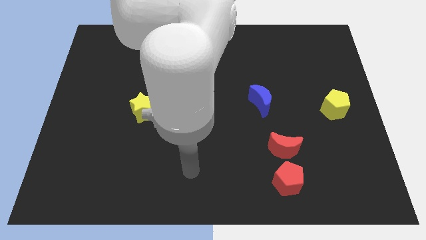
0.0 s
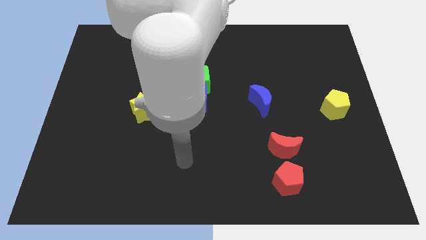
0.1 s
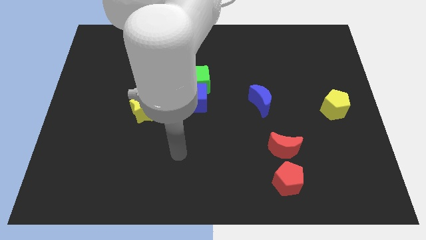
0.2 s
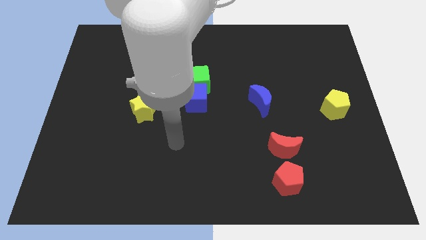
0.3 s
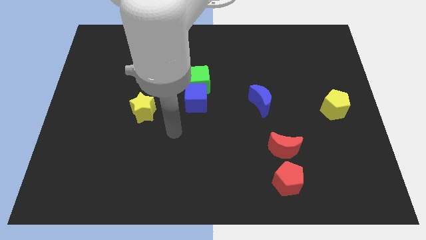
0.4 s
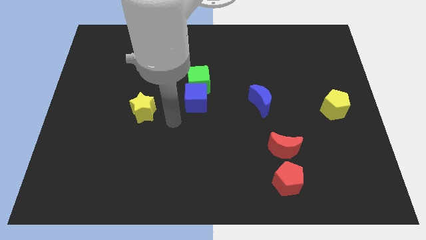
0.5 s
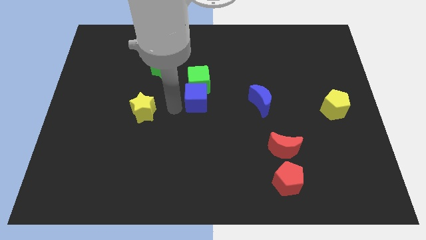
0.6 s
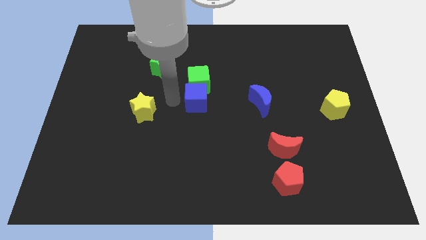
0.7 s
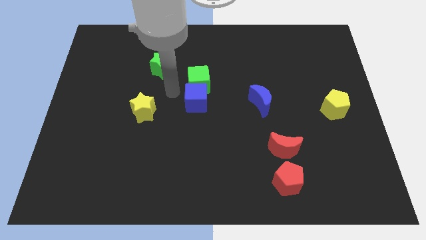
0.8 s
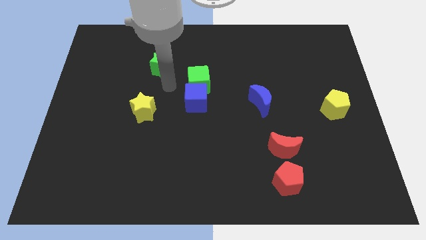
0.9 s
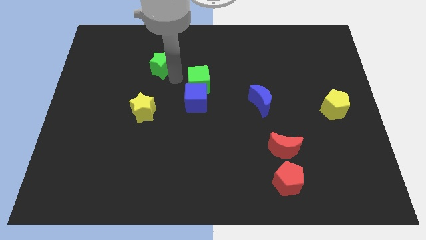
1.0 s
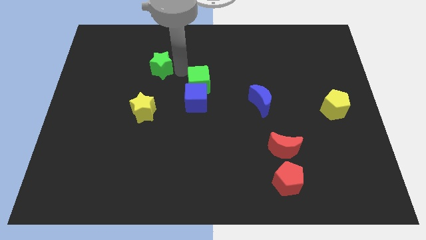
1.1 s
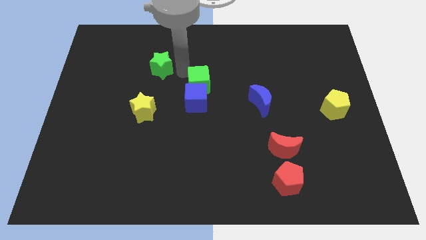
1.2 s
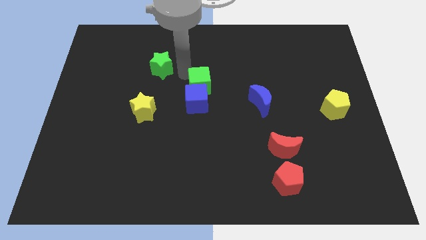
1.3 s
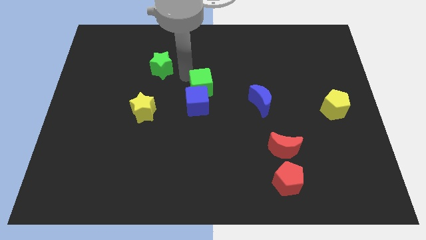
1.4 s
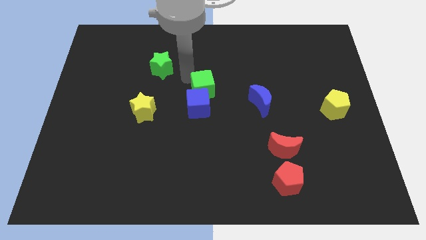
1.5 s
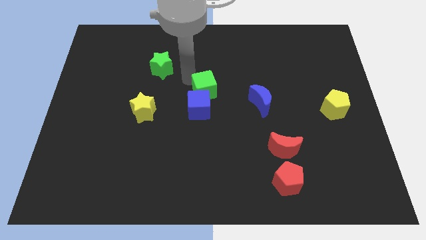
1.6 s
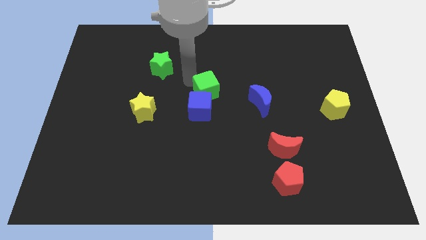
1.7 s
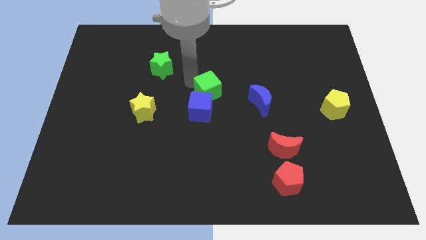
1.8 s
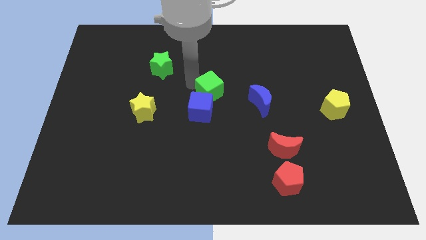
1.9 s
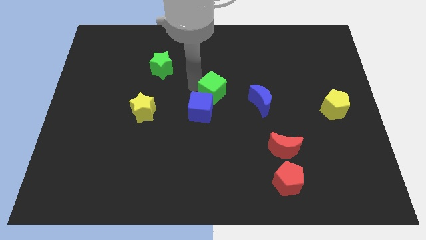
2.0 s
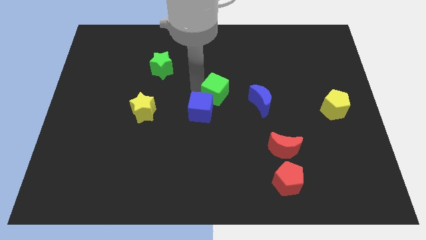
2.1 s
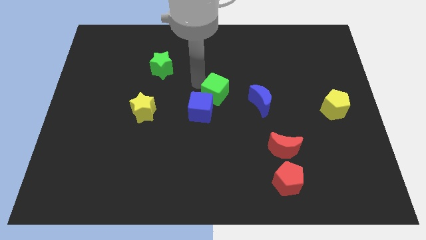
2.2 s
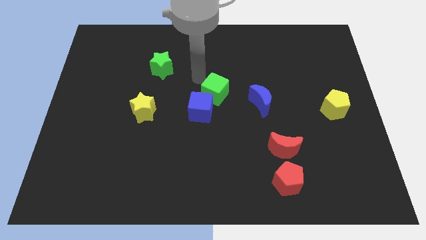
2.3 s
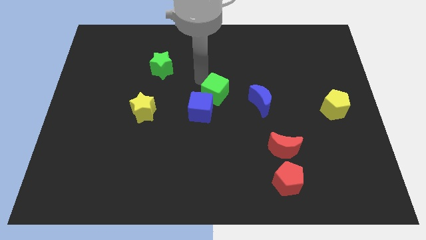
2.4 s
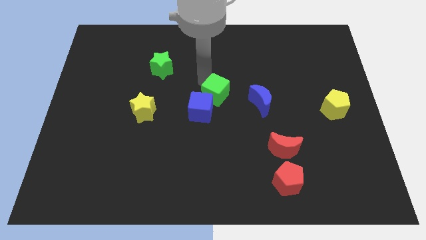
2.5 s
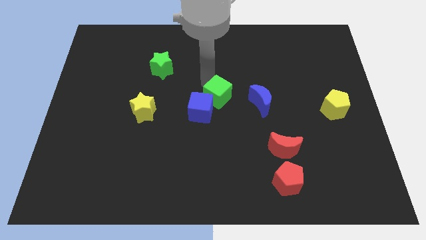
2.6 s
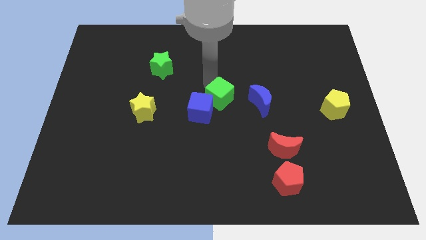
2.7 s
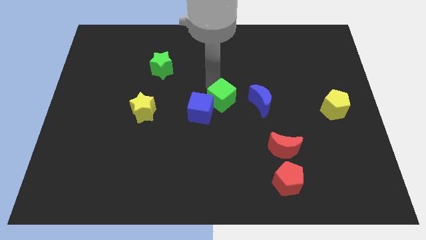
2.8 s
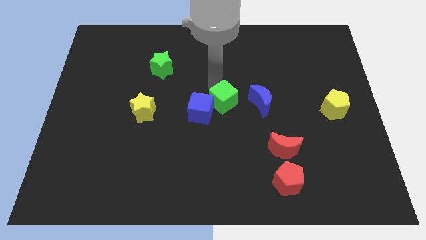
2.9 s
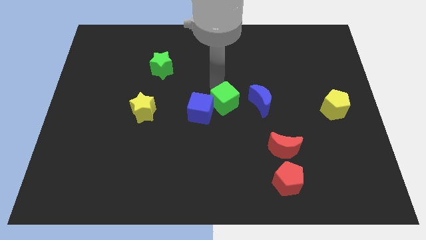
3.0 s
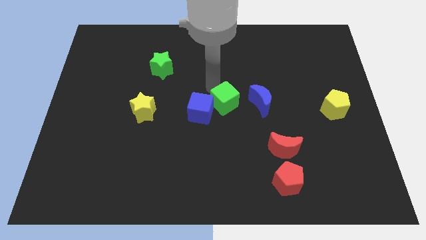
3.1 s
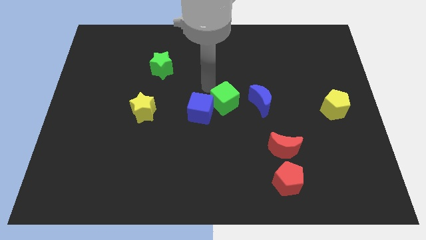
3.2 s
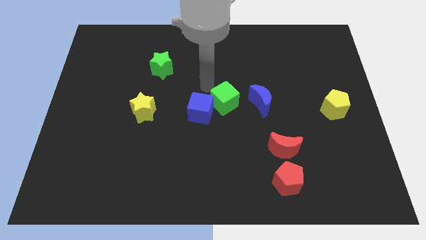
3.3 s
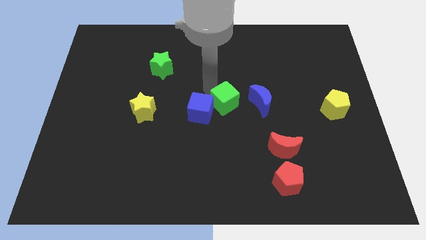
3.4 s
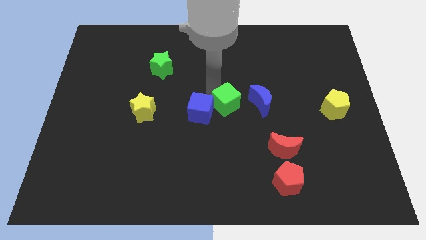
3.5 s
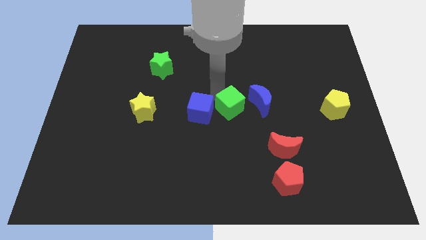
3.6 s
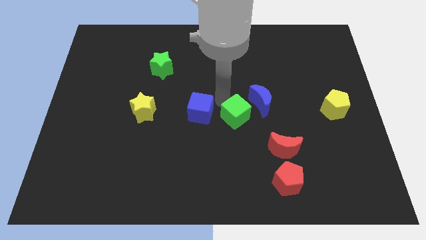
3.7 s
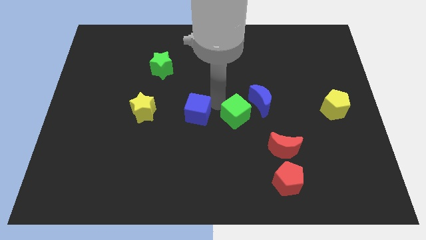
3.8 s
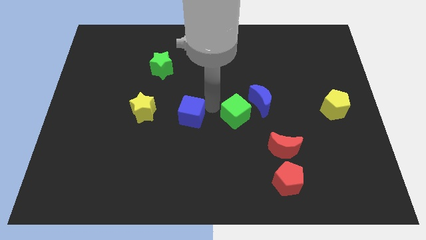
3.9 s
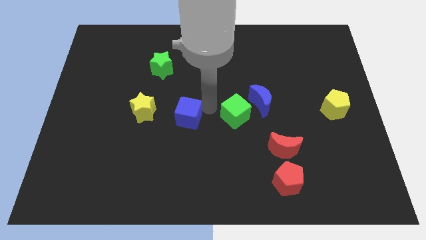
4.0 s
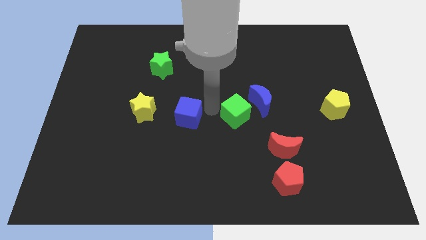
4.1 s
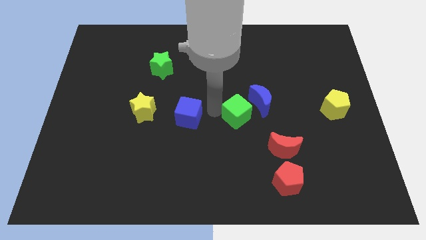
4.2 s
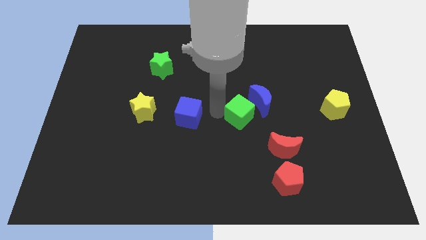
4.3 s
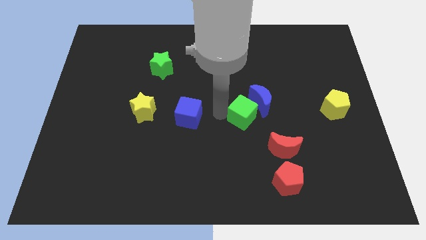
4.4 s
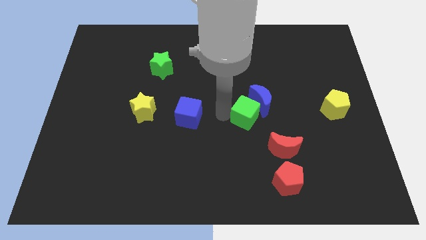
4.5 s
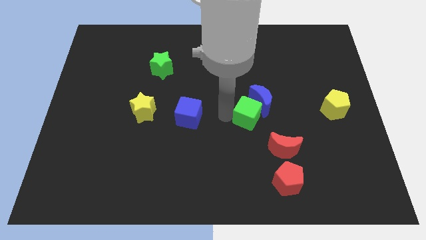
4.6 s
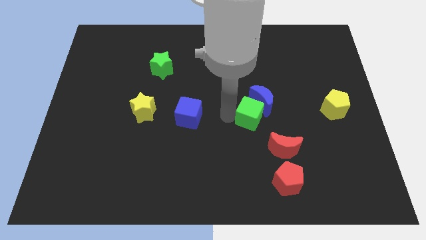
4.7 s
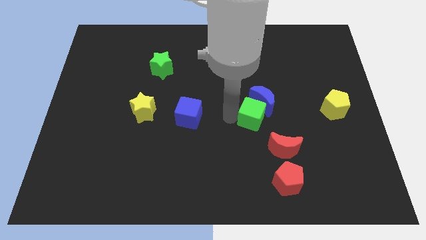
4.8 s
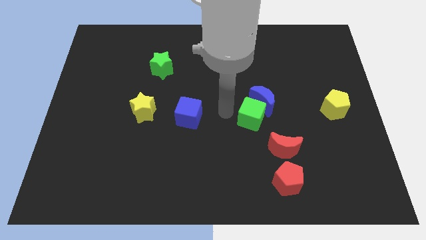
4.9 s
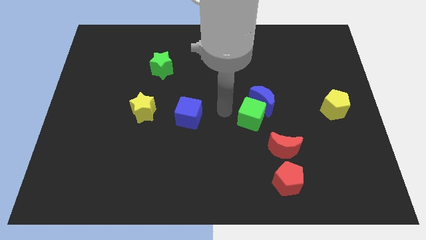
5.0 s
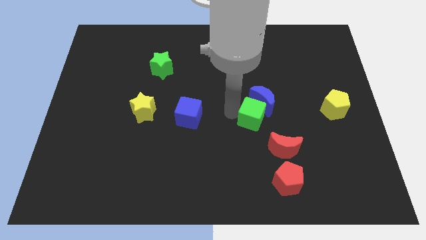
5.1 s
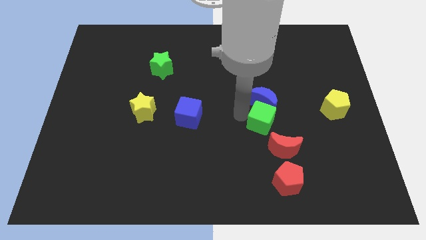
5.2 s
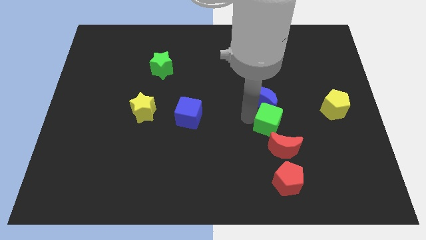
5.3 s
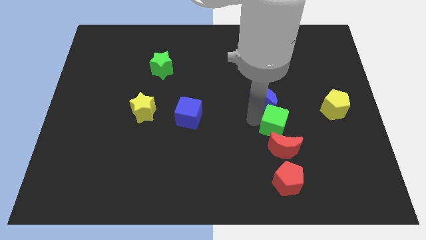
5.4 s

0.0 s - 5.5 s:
push the green cube diagonally down and to the right

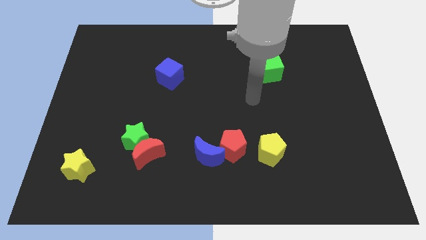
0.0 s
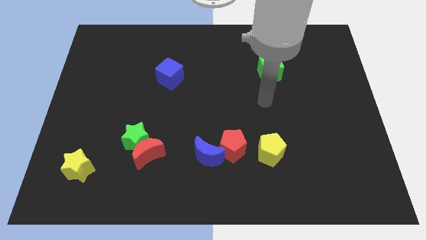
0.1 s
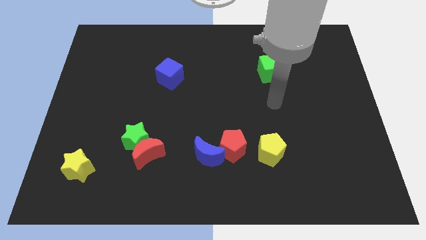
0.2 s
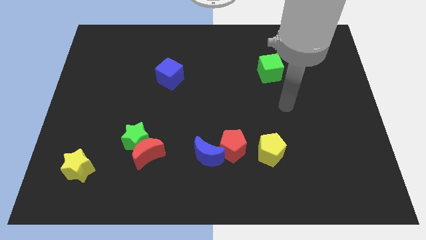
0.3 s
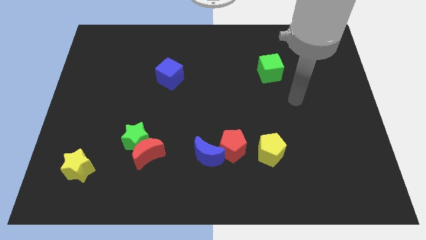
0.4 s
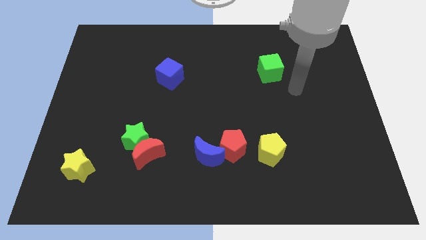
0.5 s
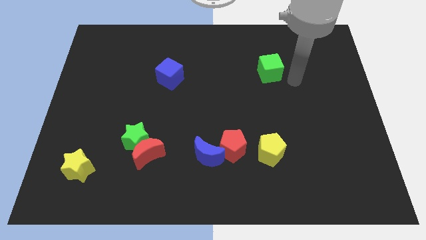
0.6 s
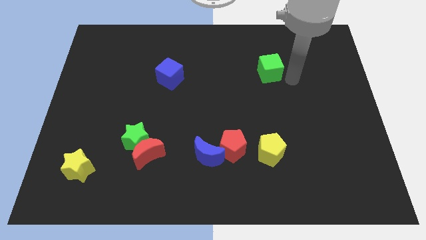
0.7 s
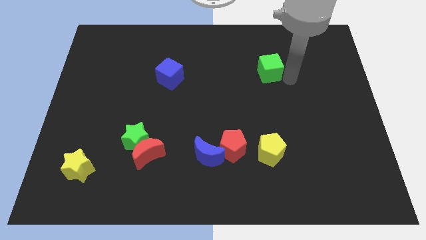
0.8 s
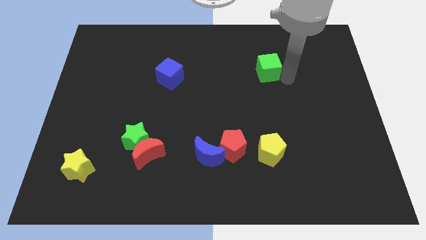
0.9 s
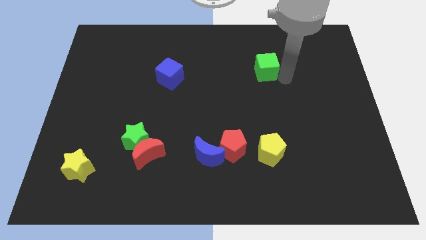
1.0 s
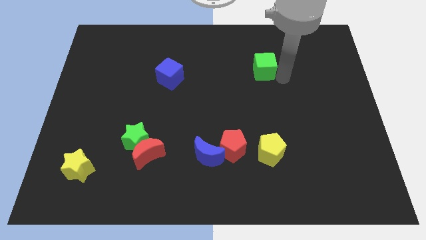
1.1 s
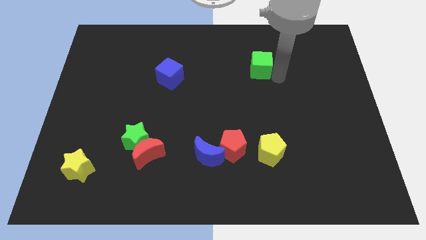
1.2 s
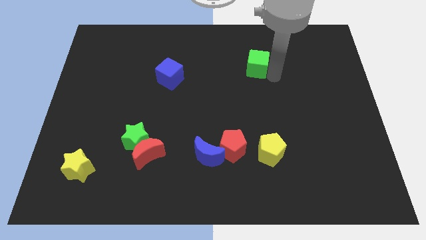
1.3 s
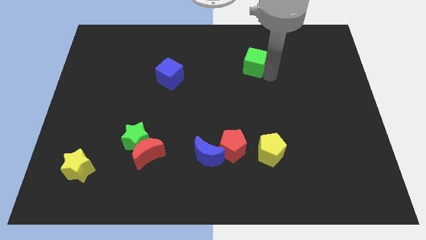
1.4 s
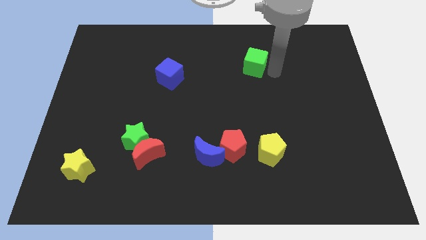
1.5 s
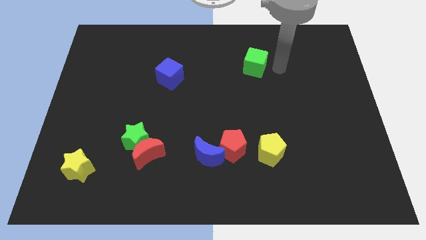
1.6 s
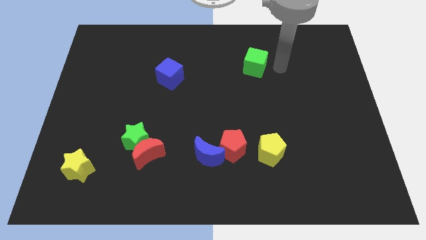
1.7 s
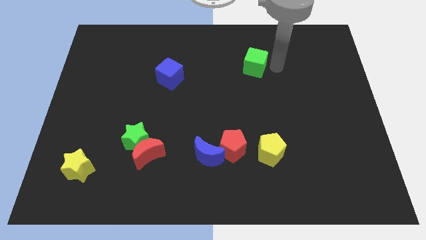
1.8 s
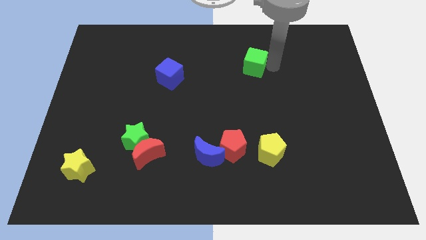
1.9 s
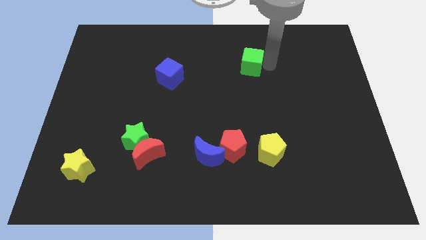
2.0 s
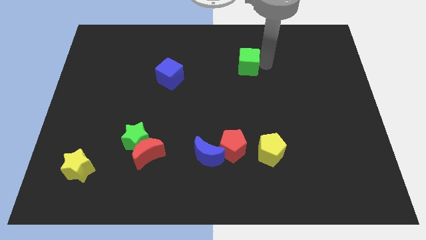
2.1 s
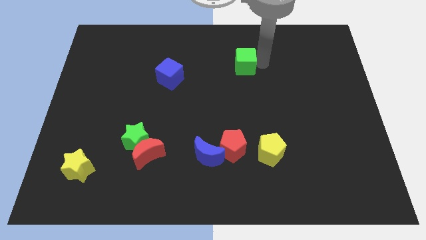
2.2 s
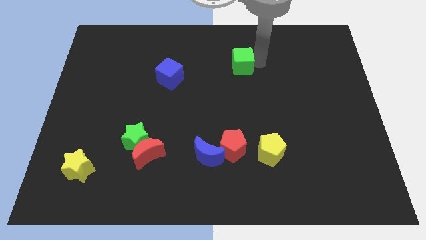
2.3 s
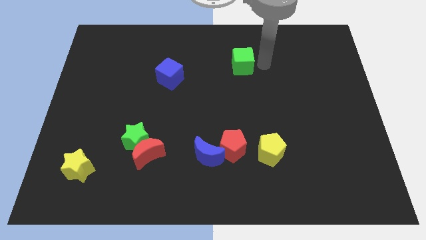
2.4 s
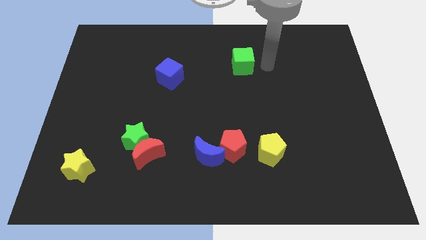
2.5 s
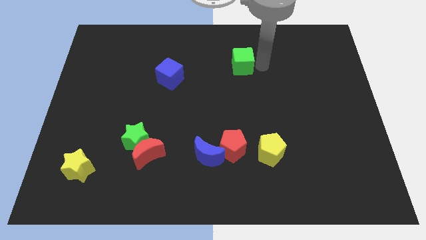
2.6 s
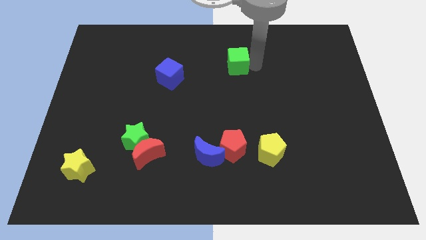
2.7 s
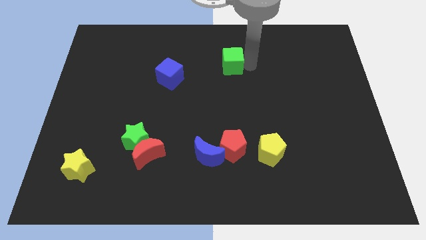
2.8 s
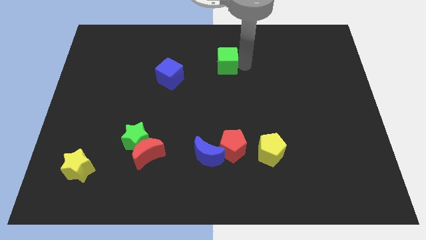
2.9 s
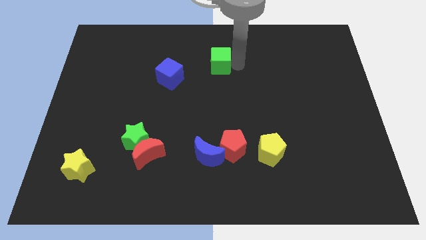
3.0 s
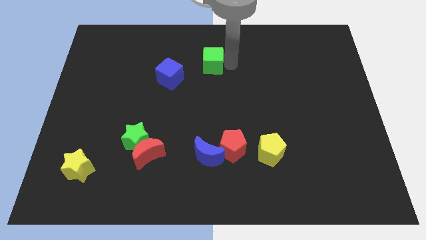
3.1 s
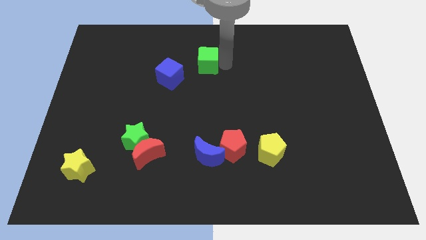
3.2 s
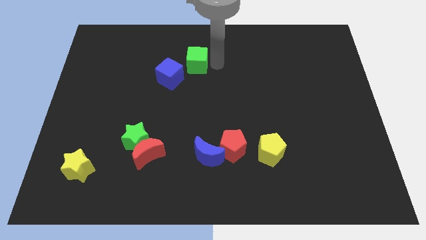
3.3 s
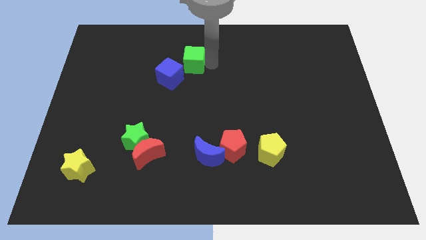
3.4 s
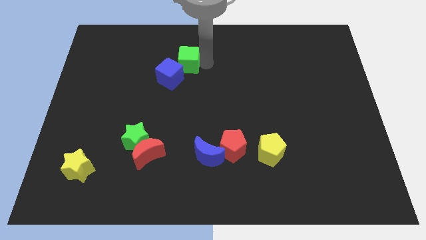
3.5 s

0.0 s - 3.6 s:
move the green cube to the left
